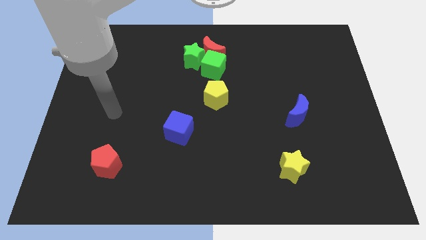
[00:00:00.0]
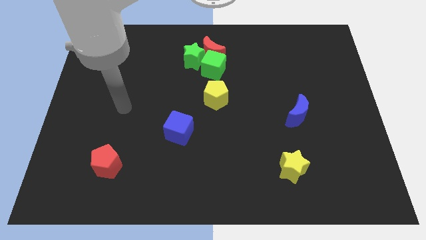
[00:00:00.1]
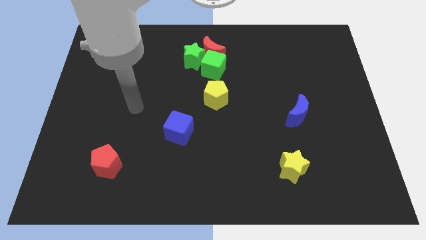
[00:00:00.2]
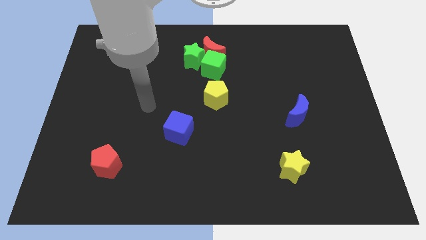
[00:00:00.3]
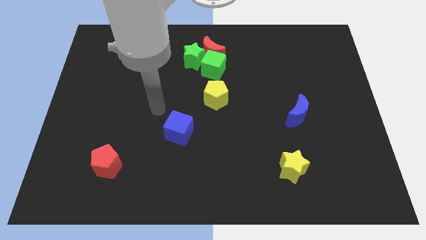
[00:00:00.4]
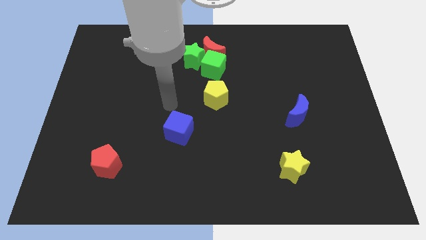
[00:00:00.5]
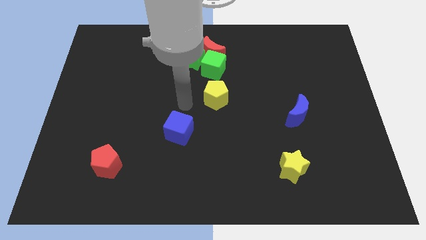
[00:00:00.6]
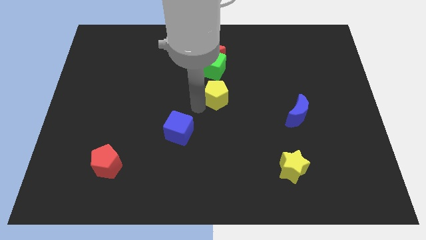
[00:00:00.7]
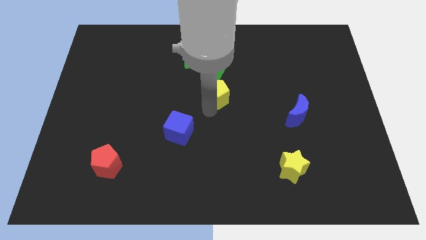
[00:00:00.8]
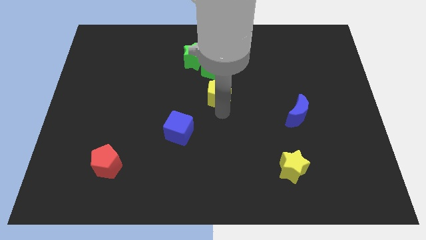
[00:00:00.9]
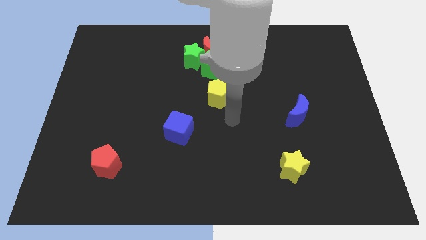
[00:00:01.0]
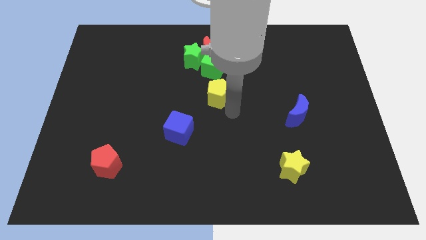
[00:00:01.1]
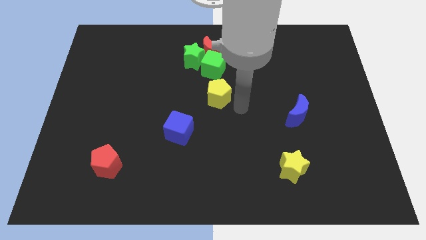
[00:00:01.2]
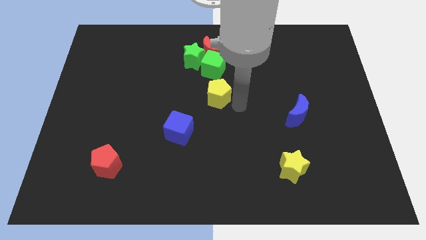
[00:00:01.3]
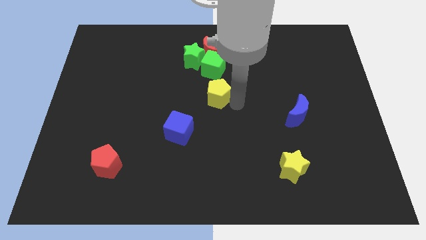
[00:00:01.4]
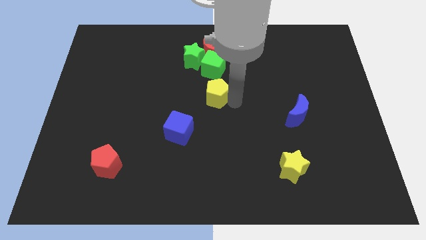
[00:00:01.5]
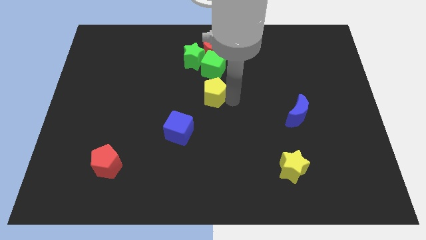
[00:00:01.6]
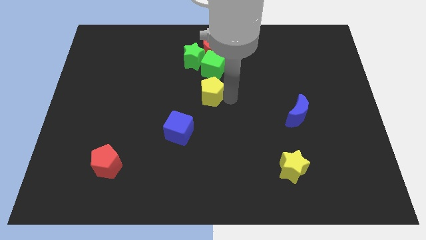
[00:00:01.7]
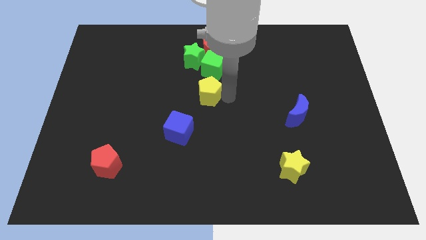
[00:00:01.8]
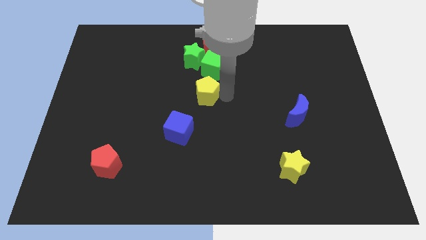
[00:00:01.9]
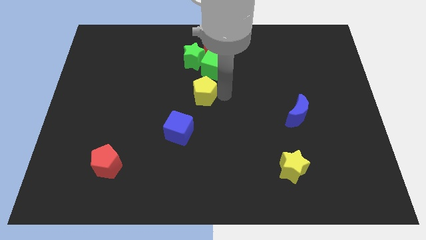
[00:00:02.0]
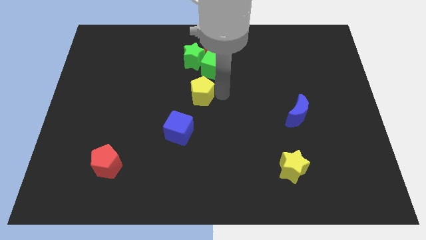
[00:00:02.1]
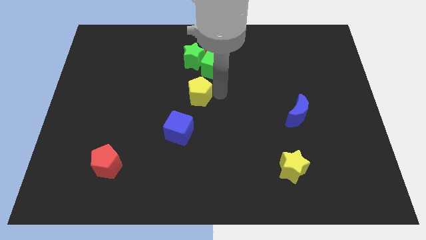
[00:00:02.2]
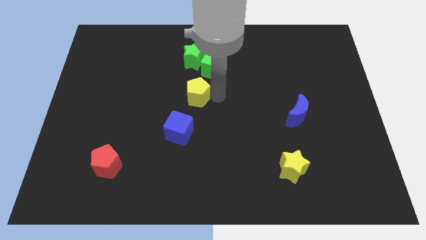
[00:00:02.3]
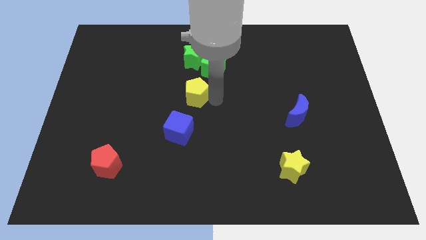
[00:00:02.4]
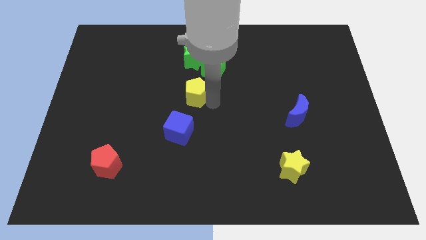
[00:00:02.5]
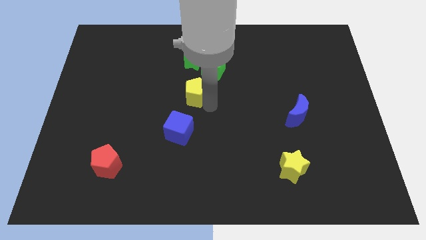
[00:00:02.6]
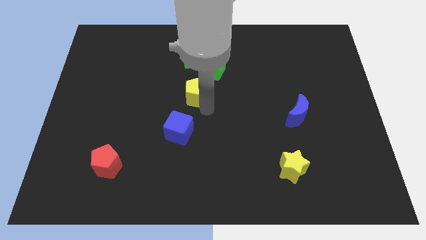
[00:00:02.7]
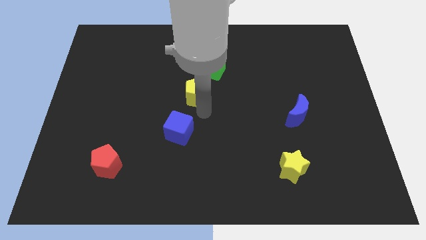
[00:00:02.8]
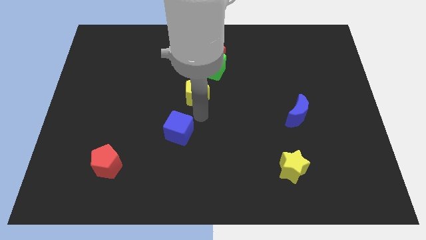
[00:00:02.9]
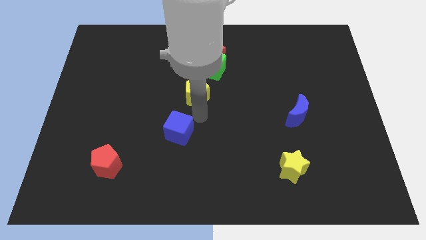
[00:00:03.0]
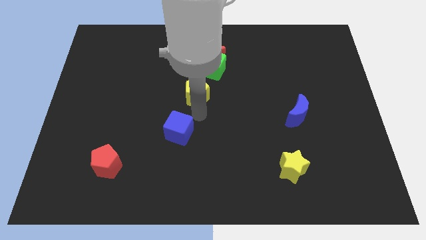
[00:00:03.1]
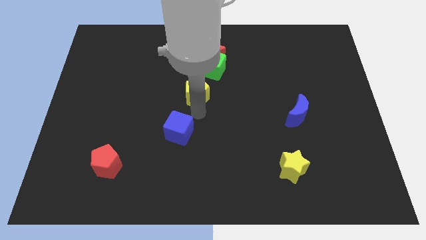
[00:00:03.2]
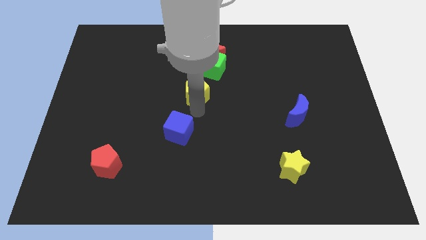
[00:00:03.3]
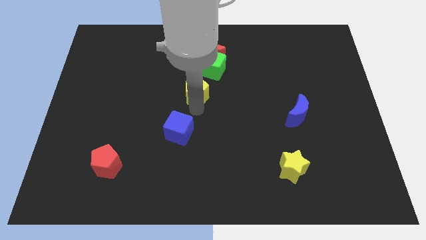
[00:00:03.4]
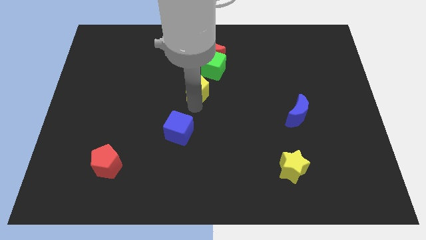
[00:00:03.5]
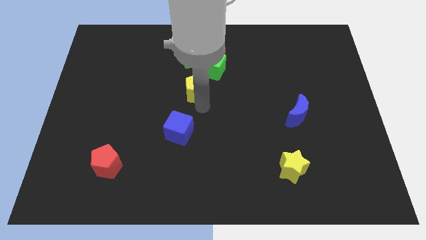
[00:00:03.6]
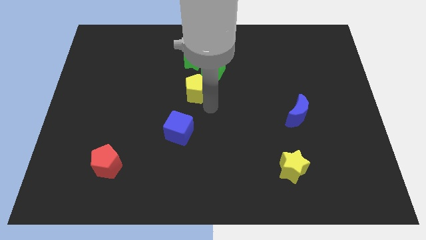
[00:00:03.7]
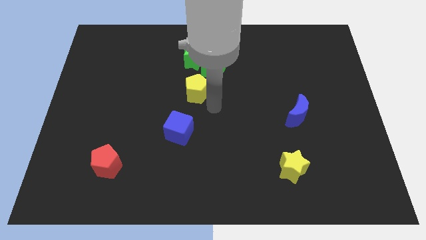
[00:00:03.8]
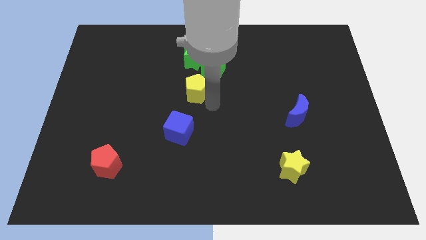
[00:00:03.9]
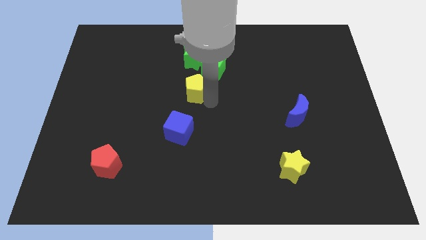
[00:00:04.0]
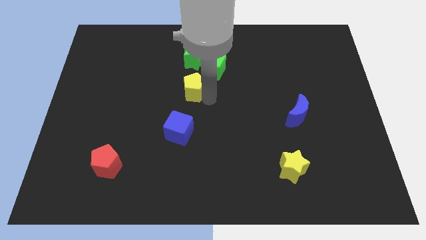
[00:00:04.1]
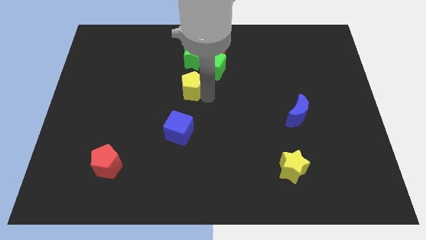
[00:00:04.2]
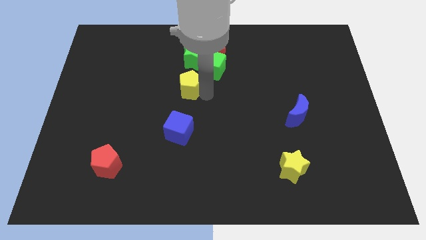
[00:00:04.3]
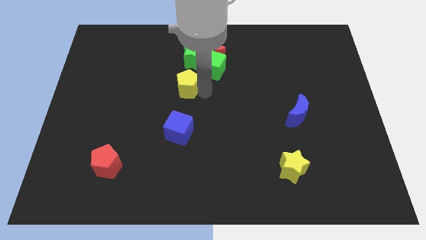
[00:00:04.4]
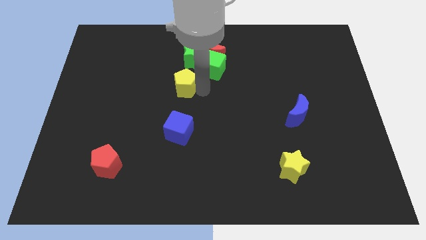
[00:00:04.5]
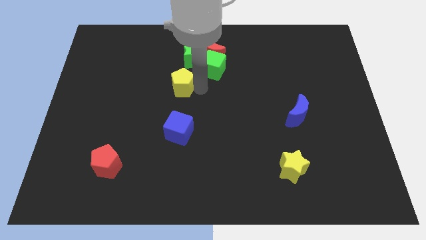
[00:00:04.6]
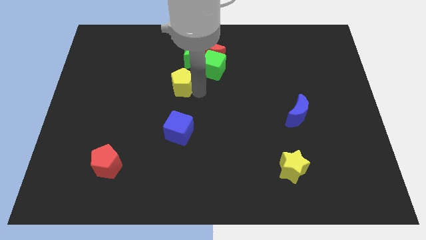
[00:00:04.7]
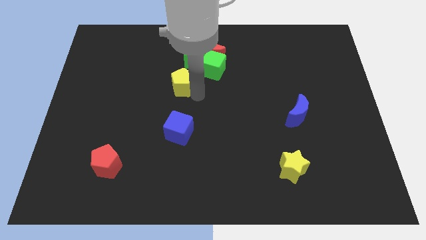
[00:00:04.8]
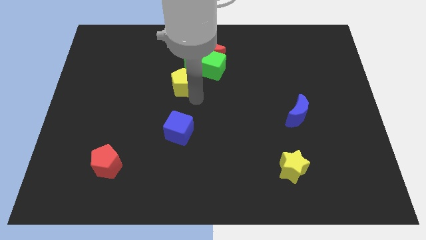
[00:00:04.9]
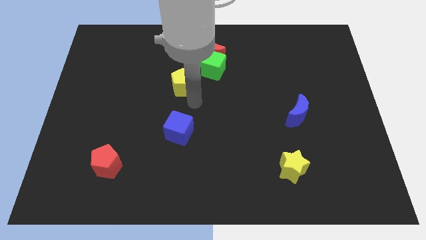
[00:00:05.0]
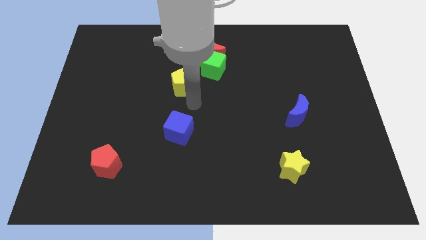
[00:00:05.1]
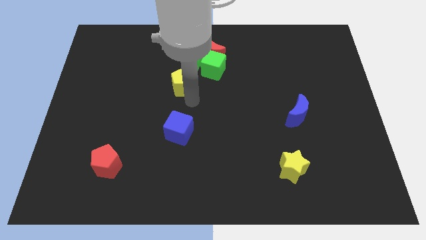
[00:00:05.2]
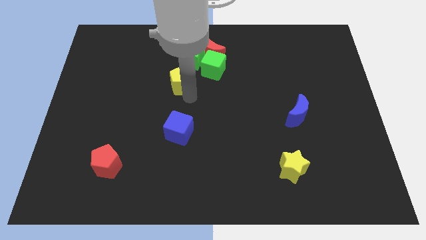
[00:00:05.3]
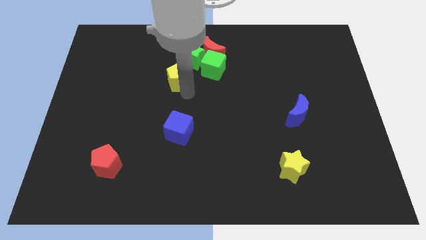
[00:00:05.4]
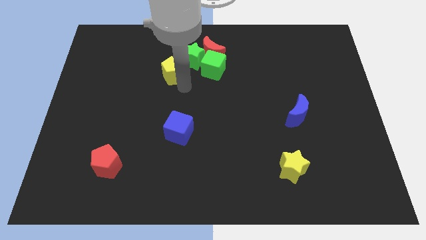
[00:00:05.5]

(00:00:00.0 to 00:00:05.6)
put the yellow pentagon to the left of the green star

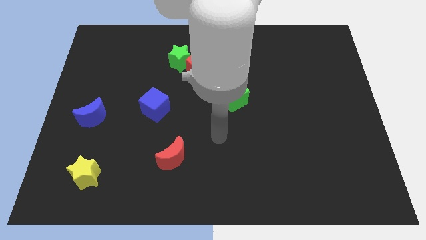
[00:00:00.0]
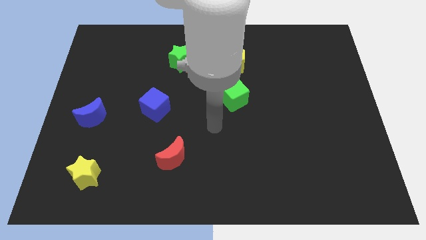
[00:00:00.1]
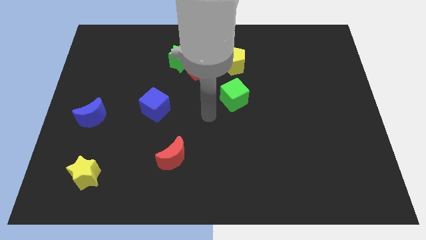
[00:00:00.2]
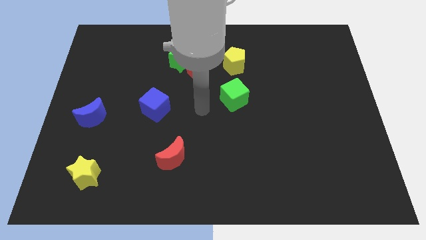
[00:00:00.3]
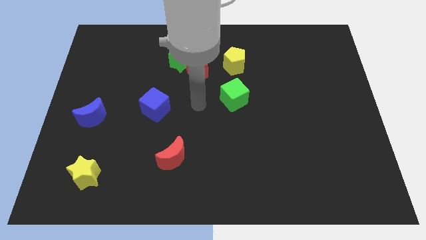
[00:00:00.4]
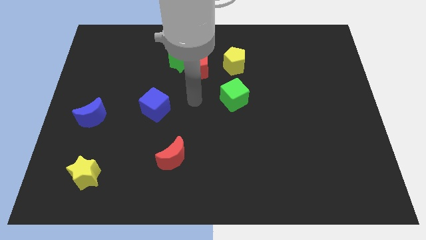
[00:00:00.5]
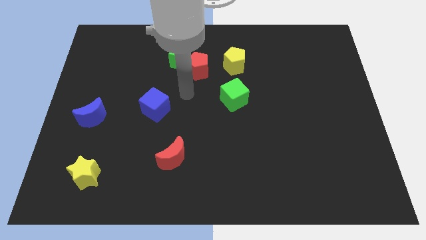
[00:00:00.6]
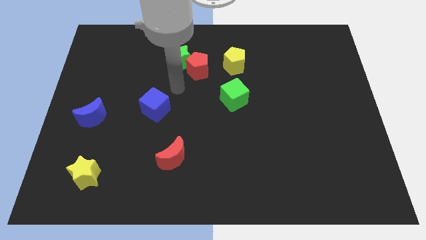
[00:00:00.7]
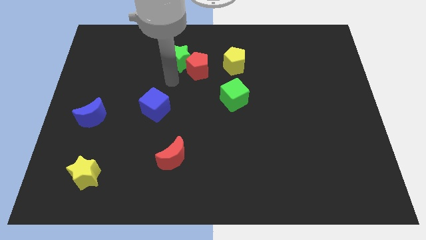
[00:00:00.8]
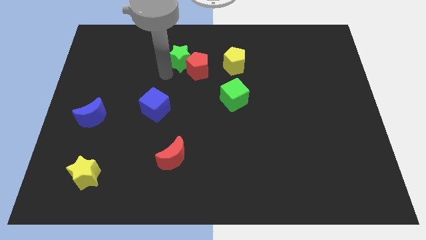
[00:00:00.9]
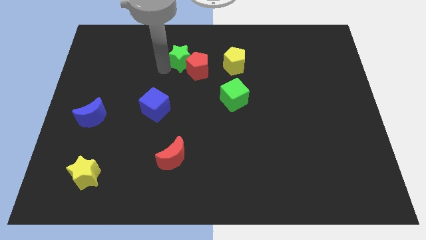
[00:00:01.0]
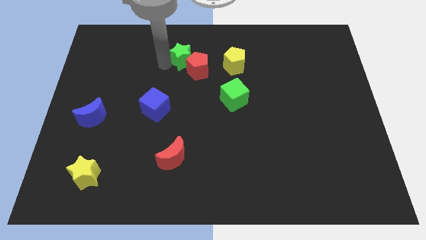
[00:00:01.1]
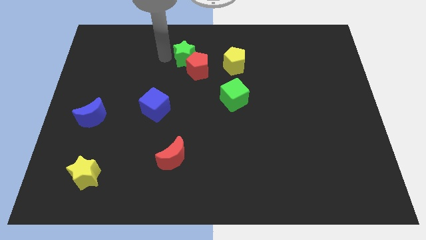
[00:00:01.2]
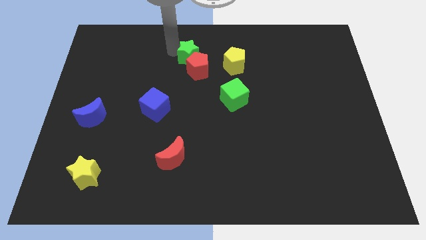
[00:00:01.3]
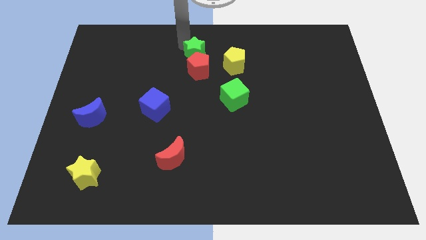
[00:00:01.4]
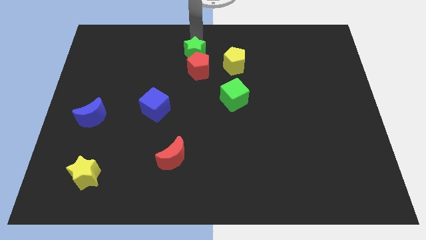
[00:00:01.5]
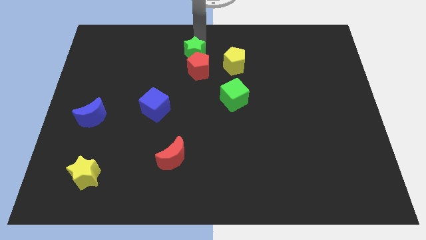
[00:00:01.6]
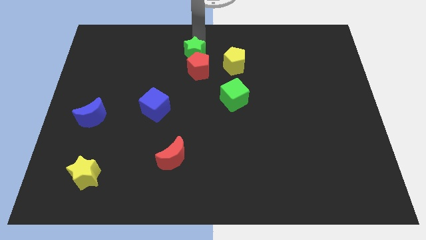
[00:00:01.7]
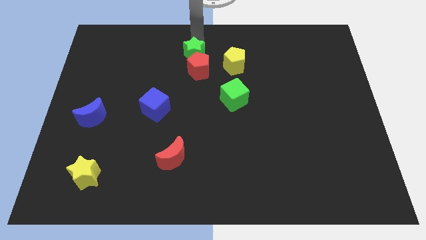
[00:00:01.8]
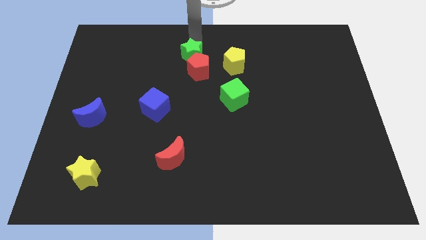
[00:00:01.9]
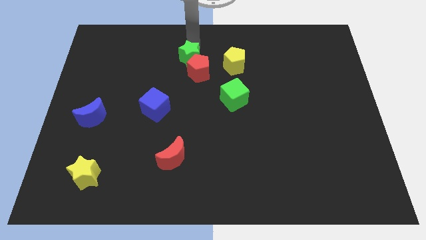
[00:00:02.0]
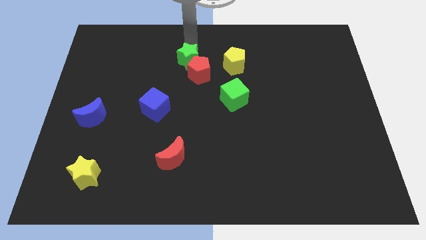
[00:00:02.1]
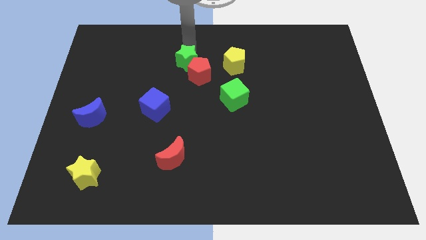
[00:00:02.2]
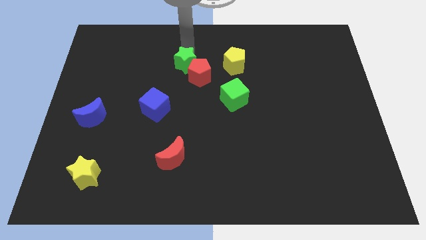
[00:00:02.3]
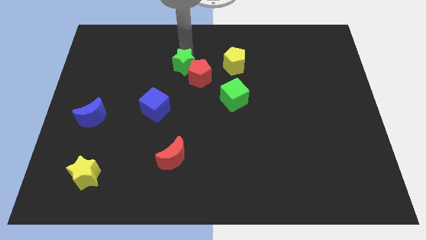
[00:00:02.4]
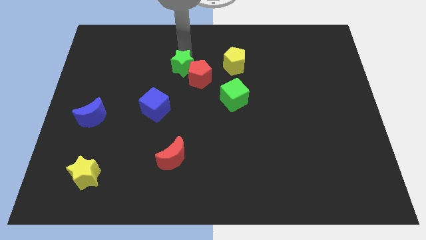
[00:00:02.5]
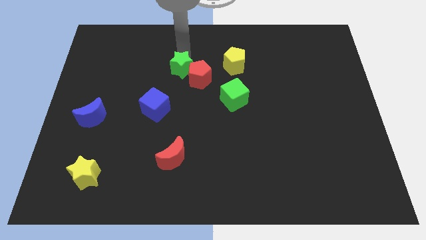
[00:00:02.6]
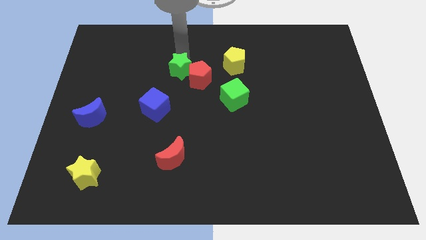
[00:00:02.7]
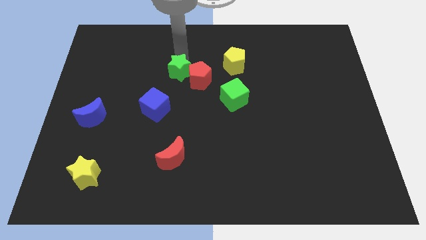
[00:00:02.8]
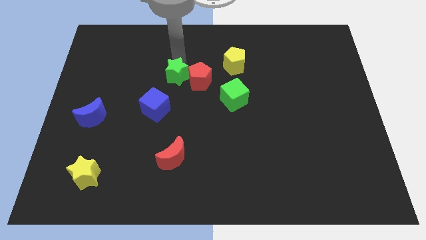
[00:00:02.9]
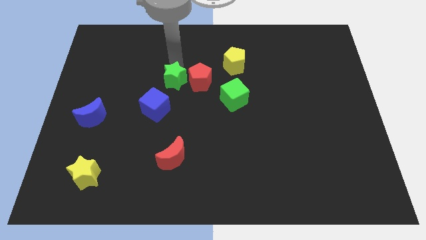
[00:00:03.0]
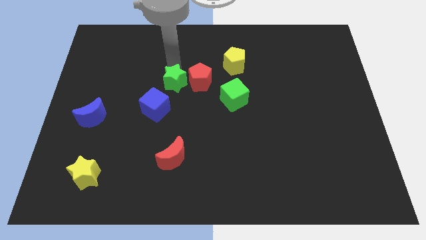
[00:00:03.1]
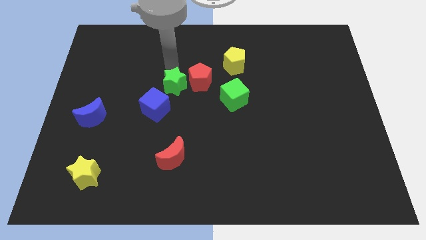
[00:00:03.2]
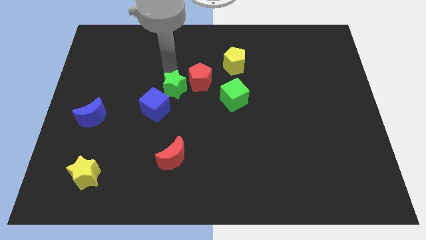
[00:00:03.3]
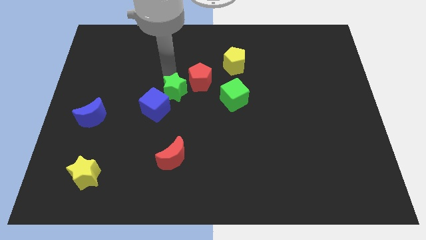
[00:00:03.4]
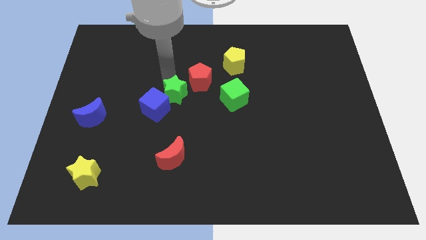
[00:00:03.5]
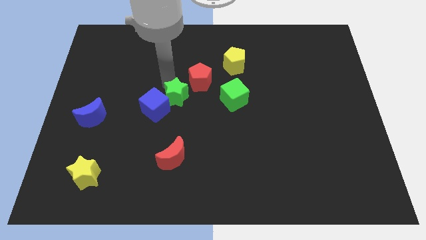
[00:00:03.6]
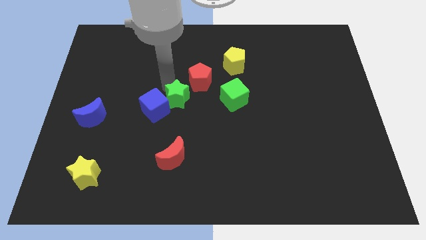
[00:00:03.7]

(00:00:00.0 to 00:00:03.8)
slide the green star below the red pentagon
